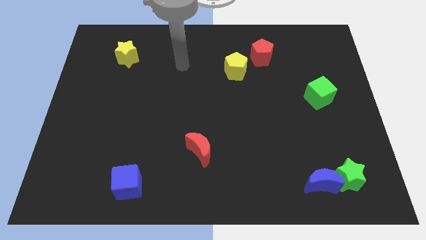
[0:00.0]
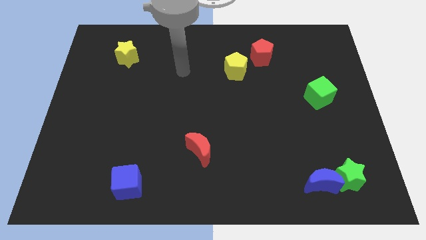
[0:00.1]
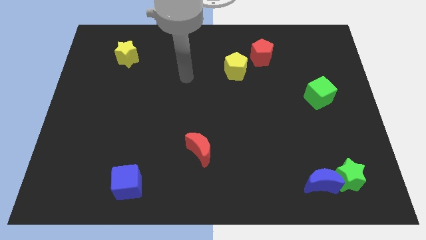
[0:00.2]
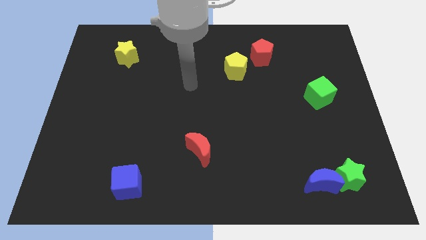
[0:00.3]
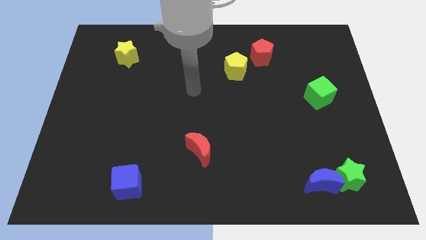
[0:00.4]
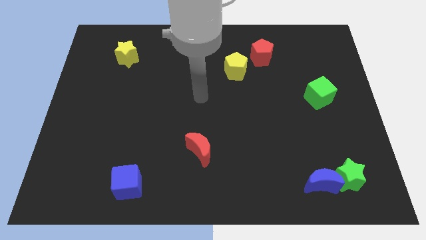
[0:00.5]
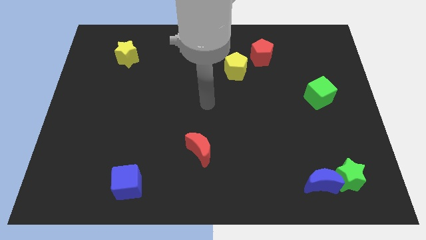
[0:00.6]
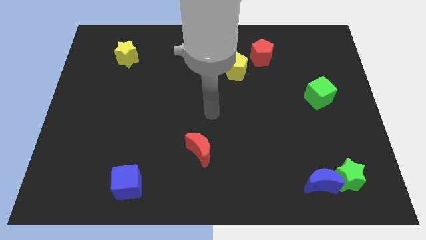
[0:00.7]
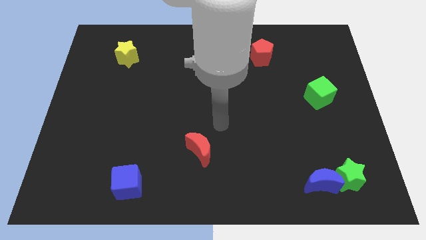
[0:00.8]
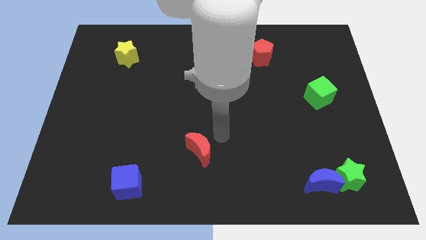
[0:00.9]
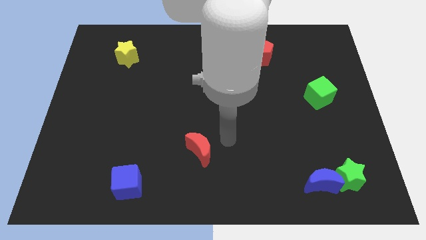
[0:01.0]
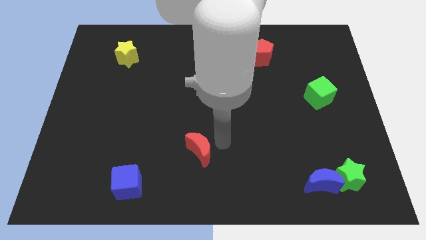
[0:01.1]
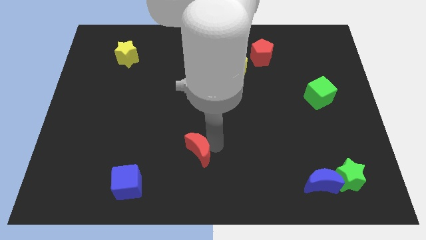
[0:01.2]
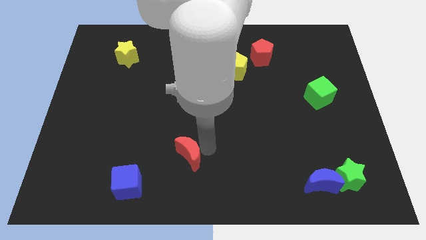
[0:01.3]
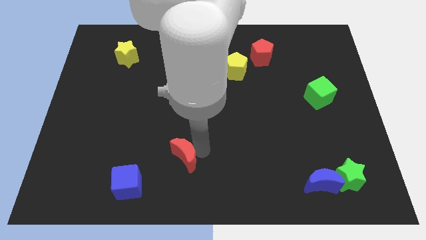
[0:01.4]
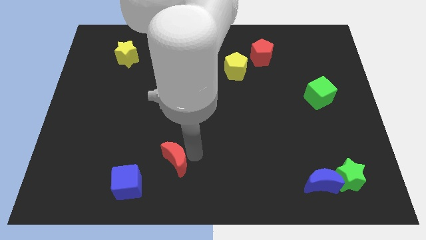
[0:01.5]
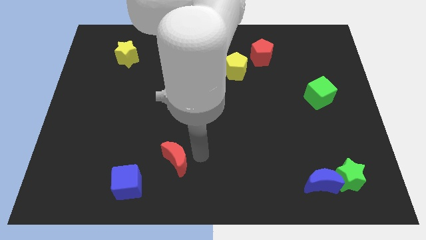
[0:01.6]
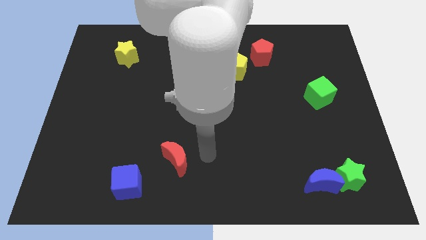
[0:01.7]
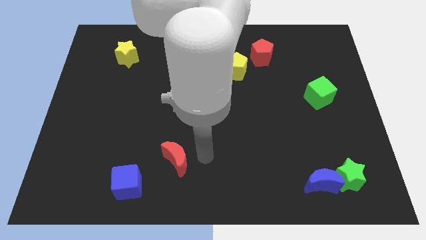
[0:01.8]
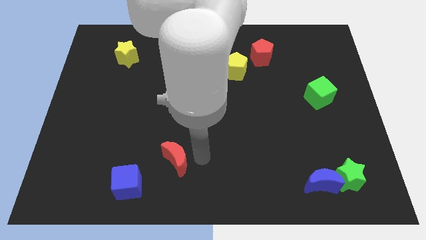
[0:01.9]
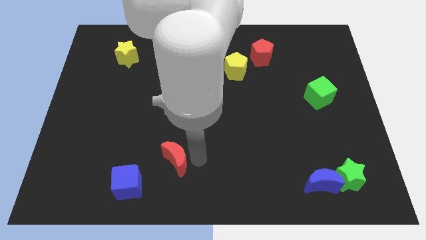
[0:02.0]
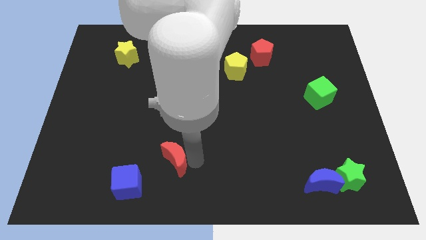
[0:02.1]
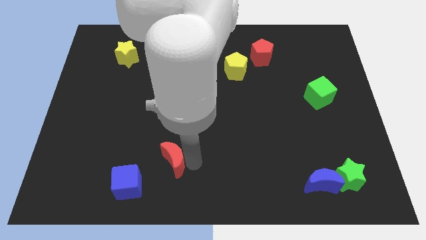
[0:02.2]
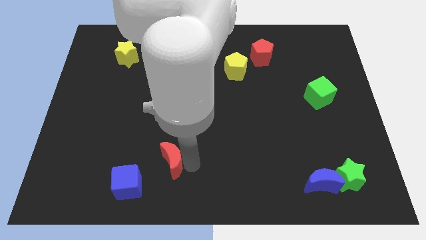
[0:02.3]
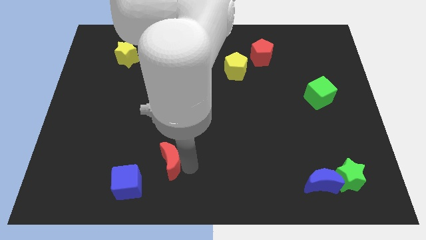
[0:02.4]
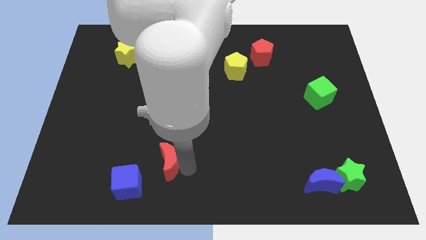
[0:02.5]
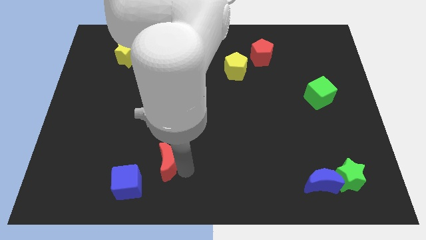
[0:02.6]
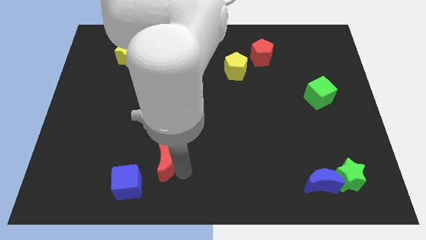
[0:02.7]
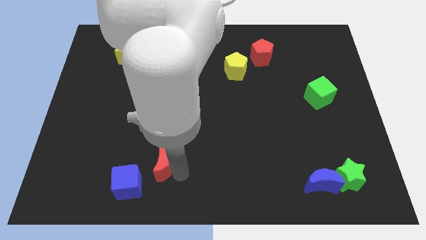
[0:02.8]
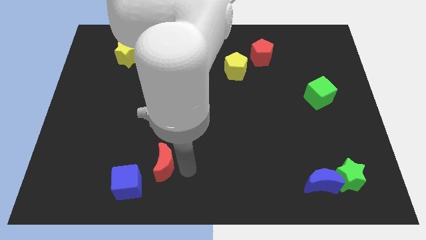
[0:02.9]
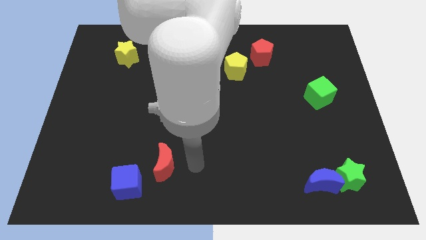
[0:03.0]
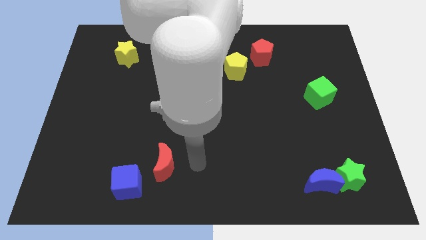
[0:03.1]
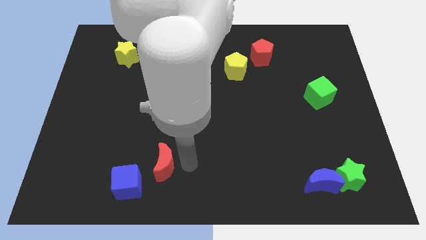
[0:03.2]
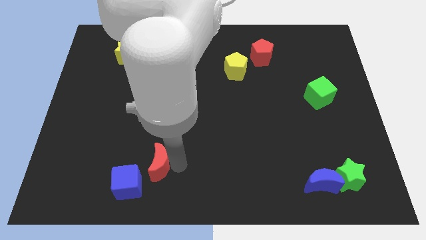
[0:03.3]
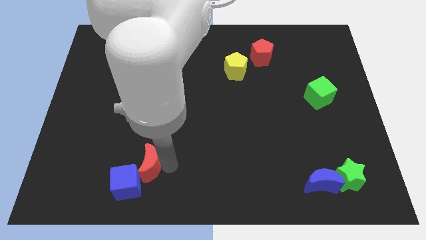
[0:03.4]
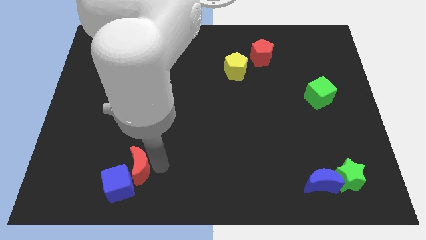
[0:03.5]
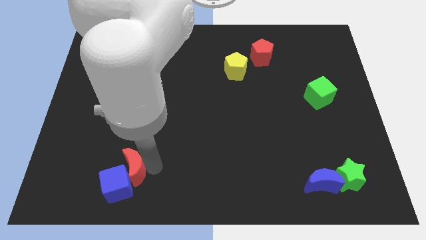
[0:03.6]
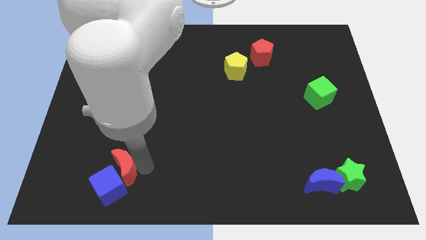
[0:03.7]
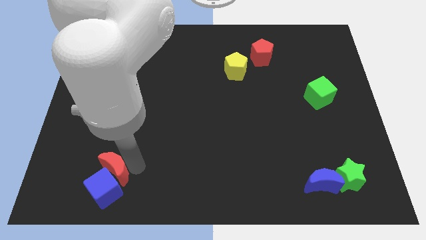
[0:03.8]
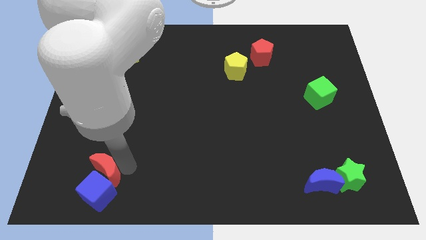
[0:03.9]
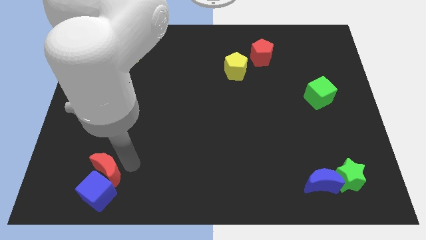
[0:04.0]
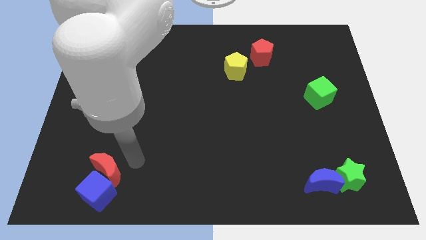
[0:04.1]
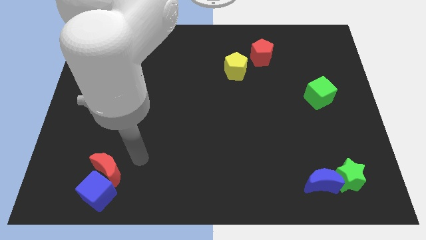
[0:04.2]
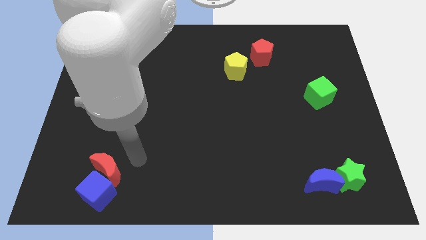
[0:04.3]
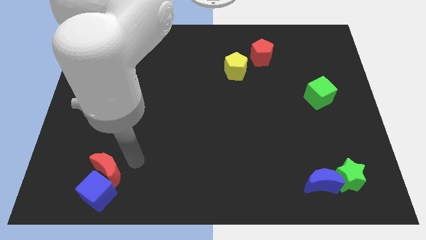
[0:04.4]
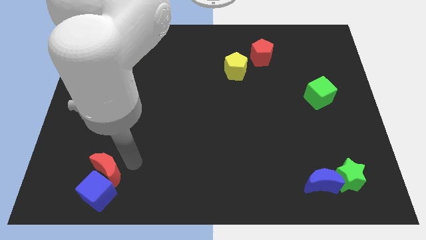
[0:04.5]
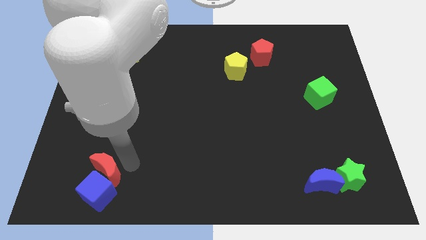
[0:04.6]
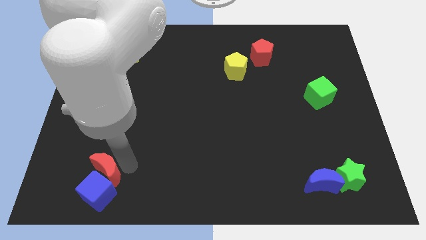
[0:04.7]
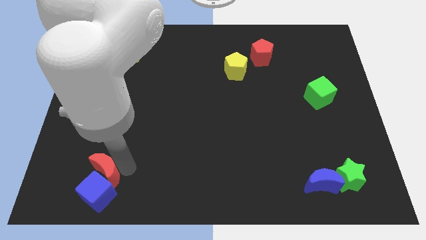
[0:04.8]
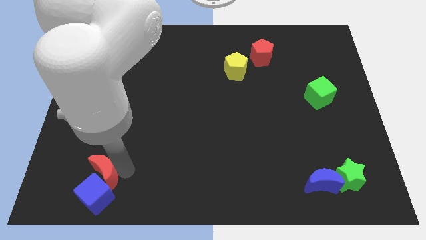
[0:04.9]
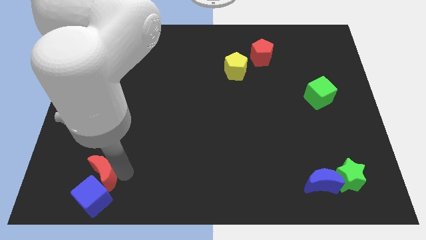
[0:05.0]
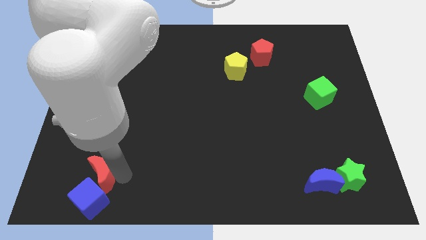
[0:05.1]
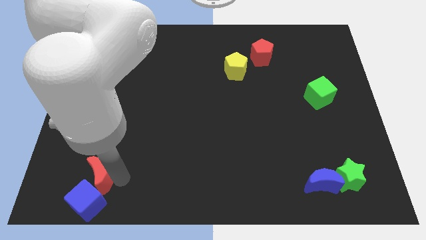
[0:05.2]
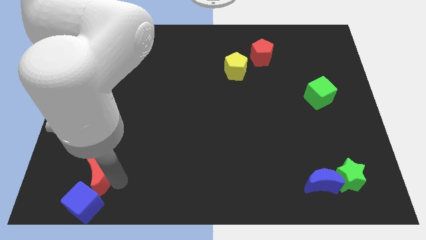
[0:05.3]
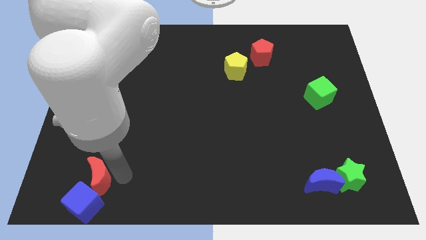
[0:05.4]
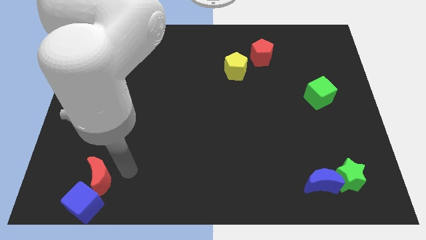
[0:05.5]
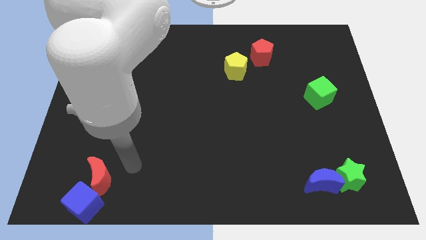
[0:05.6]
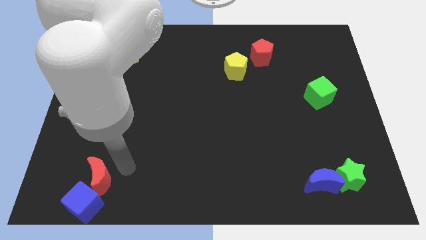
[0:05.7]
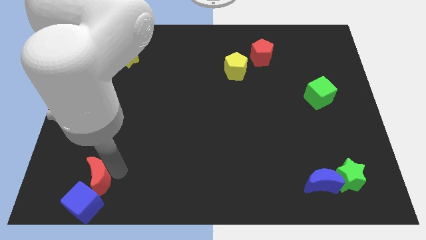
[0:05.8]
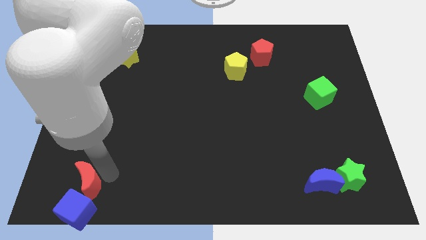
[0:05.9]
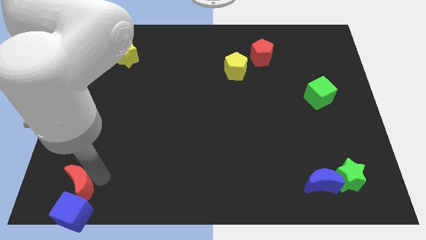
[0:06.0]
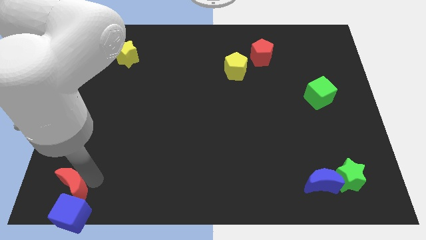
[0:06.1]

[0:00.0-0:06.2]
move the red moon to the lower left corner
